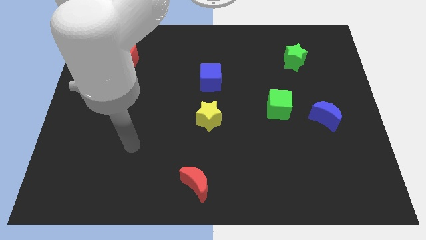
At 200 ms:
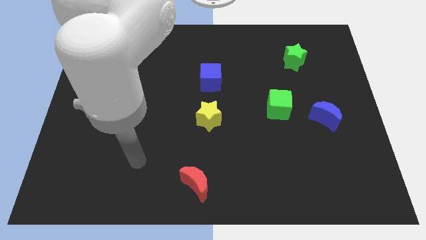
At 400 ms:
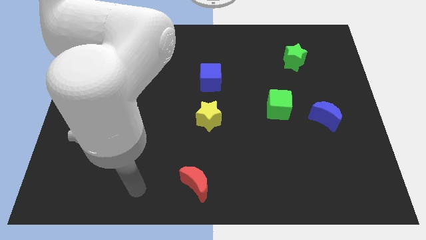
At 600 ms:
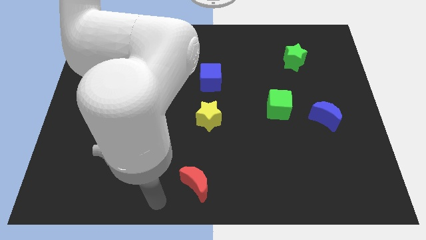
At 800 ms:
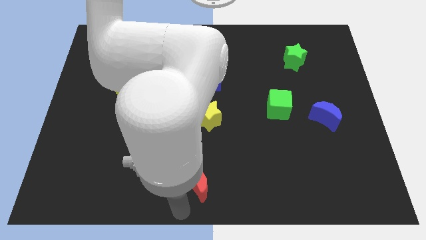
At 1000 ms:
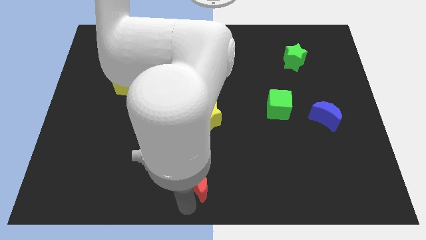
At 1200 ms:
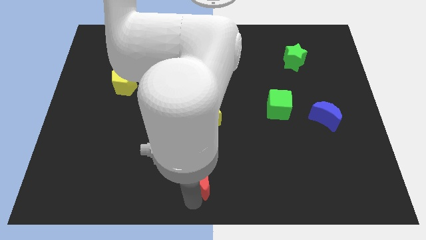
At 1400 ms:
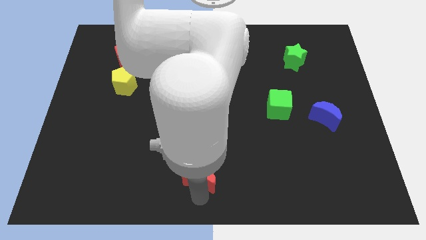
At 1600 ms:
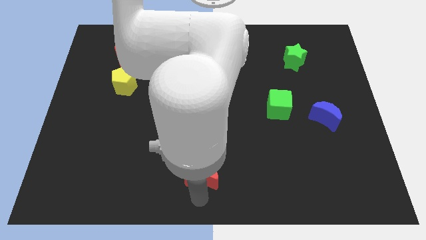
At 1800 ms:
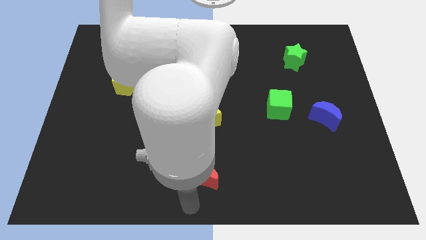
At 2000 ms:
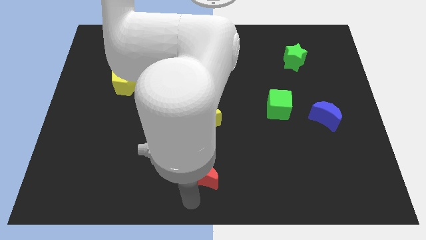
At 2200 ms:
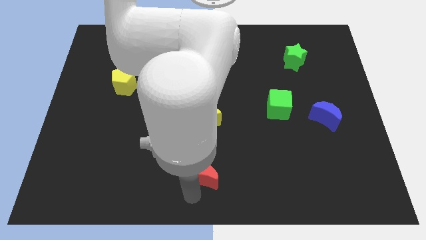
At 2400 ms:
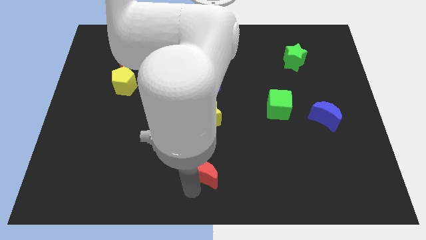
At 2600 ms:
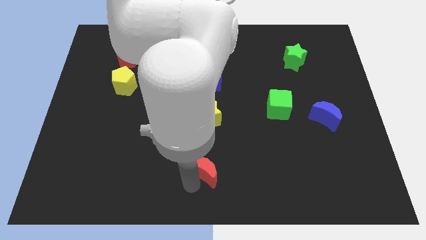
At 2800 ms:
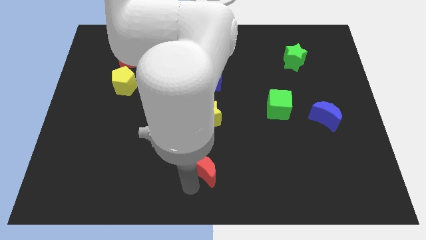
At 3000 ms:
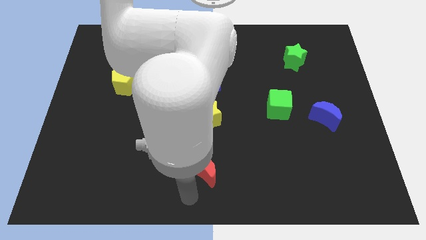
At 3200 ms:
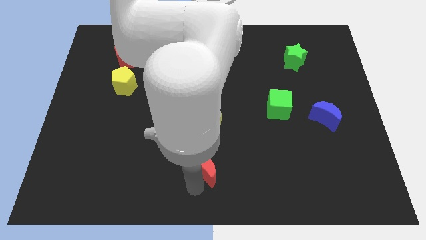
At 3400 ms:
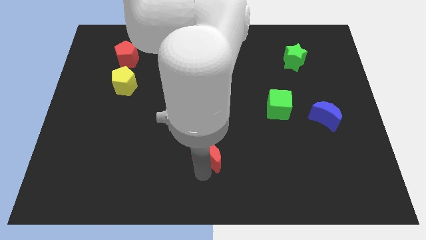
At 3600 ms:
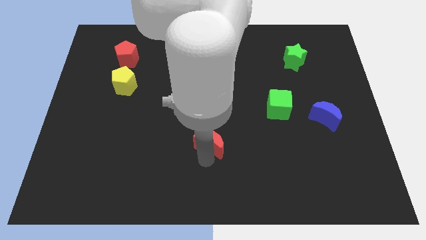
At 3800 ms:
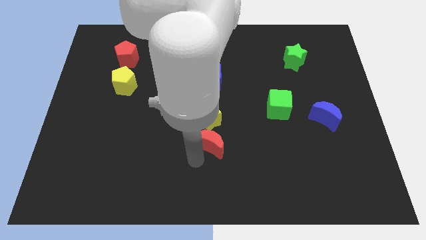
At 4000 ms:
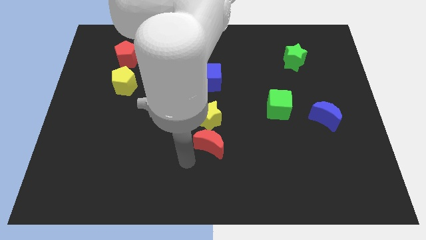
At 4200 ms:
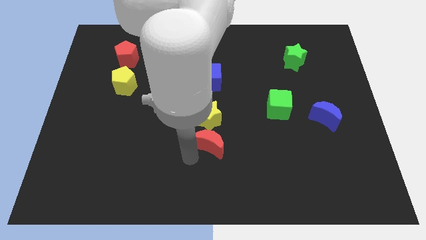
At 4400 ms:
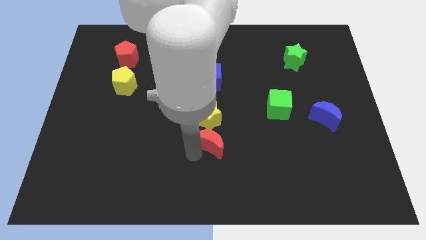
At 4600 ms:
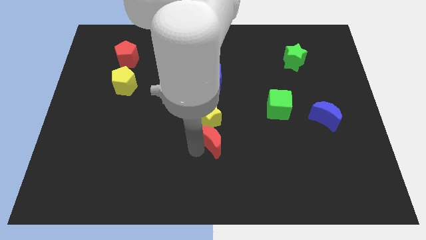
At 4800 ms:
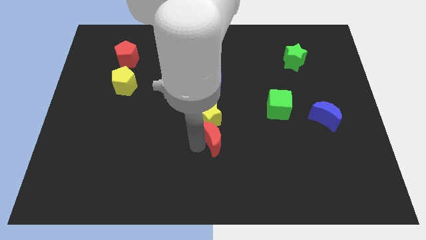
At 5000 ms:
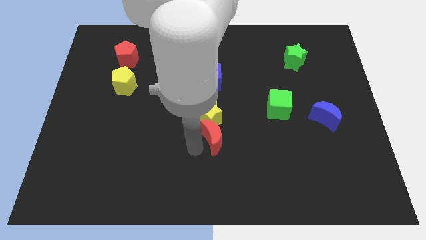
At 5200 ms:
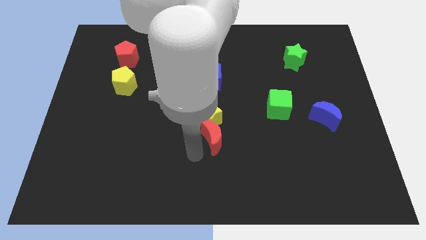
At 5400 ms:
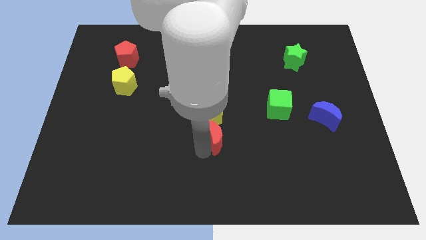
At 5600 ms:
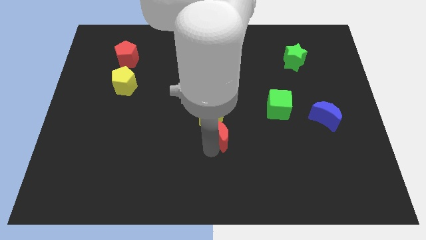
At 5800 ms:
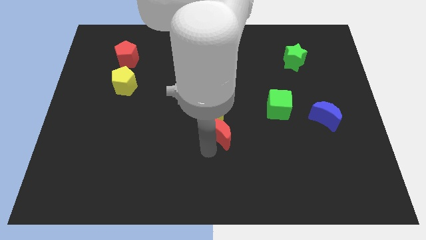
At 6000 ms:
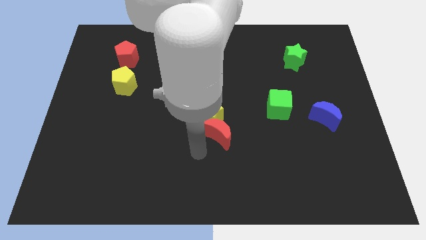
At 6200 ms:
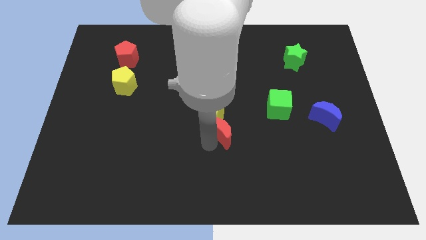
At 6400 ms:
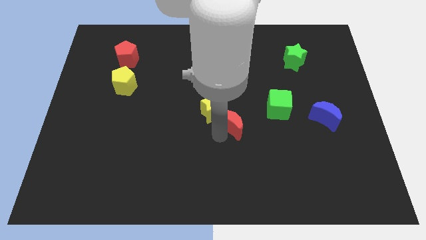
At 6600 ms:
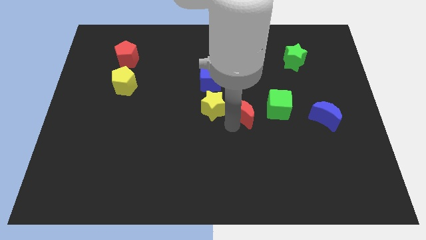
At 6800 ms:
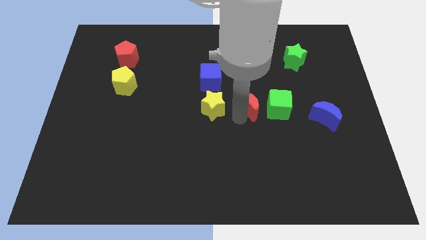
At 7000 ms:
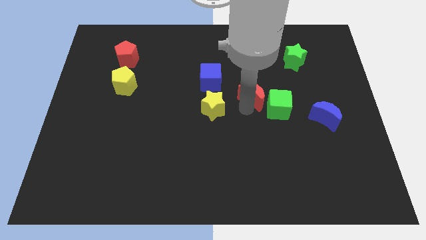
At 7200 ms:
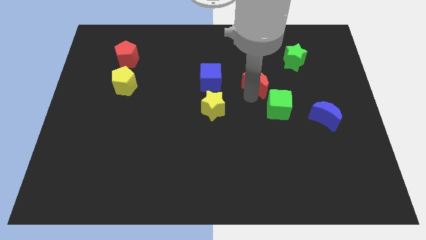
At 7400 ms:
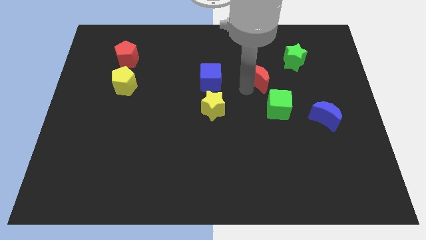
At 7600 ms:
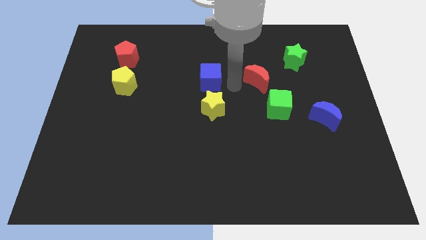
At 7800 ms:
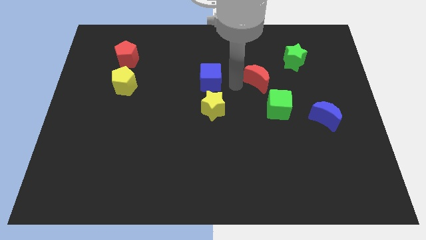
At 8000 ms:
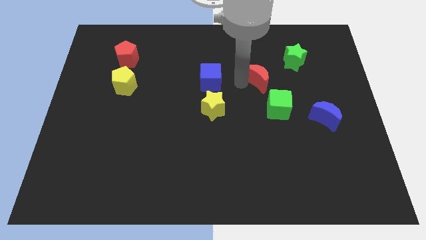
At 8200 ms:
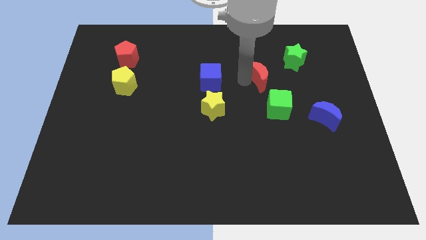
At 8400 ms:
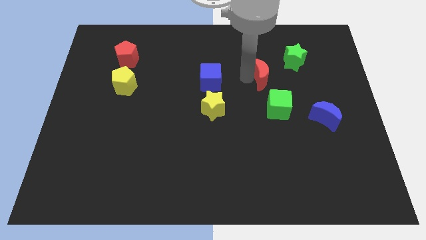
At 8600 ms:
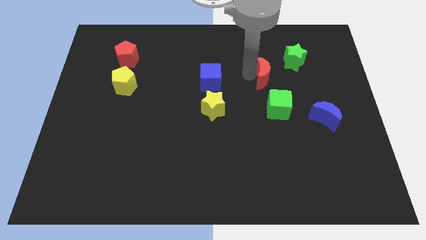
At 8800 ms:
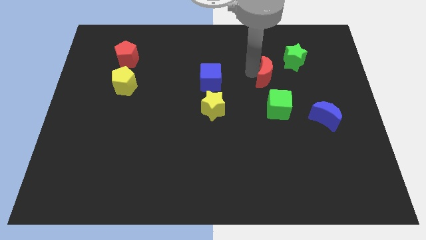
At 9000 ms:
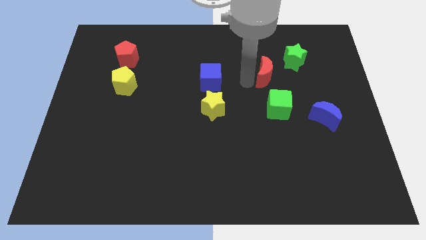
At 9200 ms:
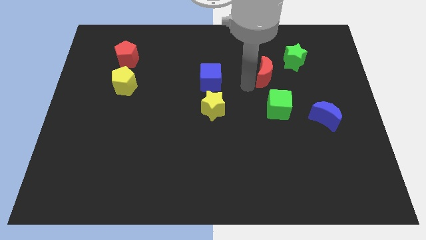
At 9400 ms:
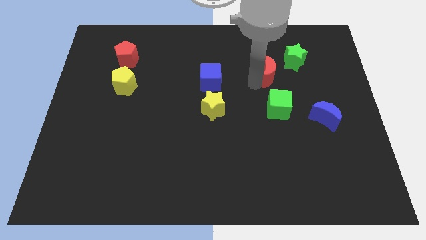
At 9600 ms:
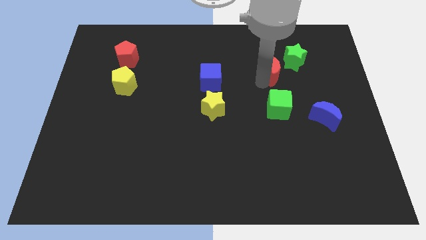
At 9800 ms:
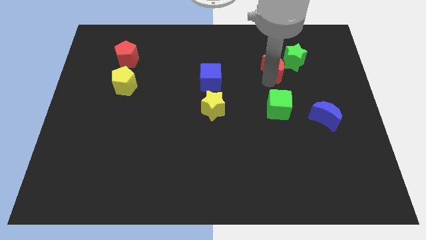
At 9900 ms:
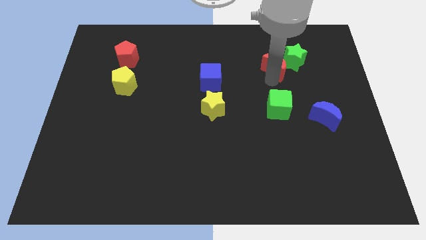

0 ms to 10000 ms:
push the red moon towards the green star

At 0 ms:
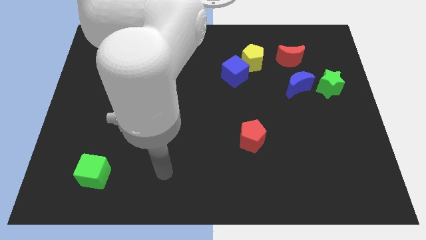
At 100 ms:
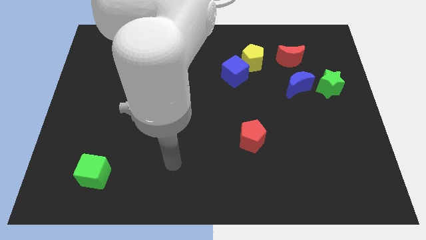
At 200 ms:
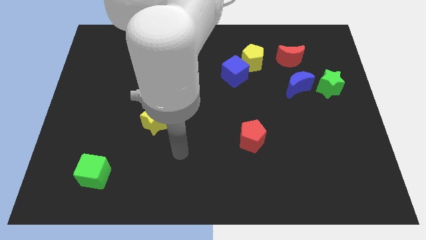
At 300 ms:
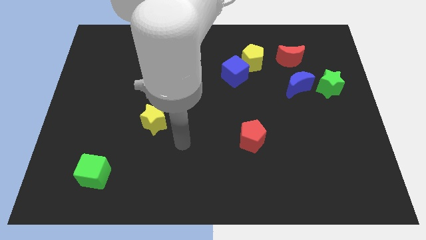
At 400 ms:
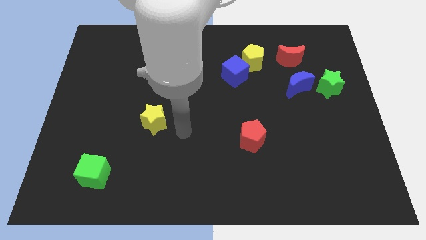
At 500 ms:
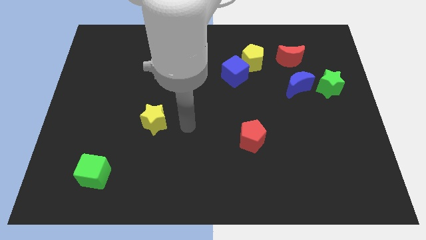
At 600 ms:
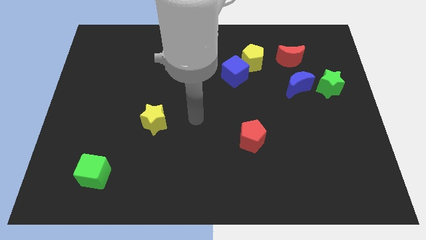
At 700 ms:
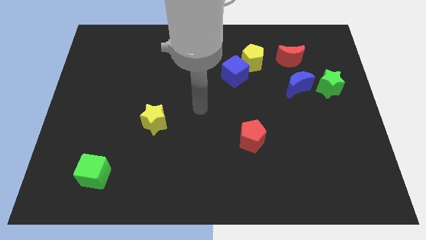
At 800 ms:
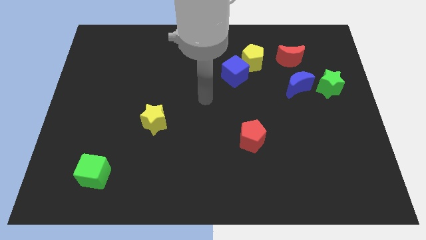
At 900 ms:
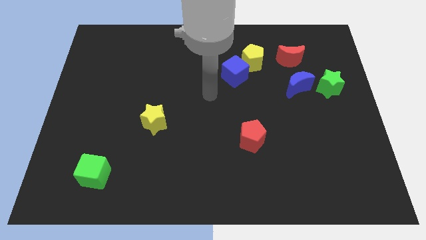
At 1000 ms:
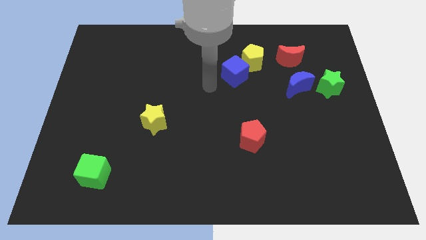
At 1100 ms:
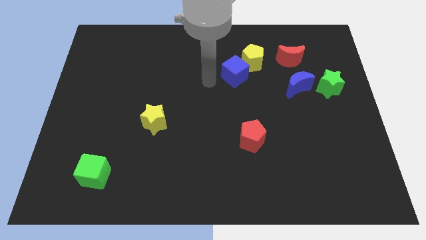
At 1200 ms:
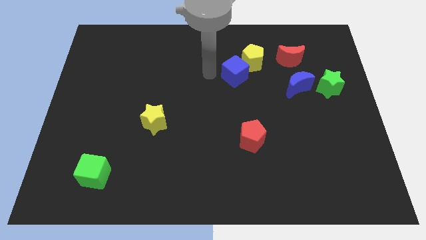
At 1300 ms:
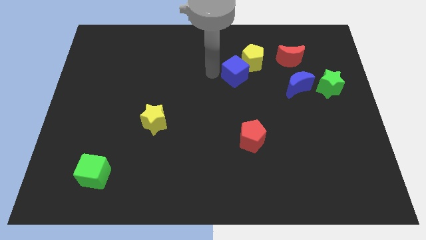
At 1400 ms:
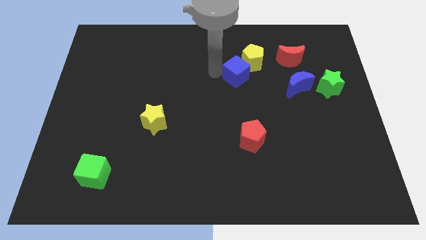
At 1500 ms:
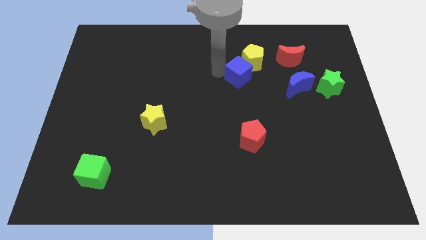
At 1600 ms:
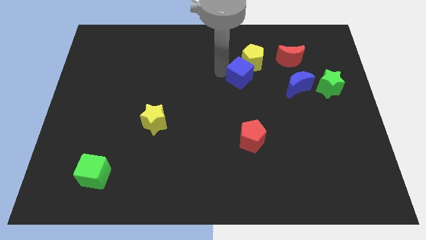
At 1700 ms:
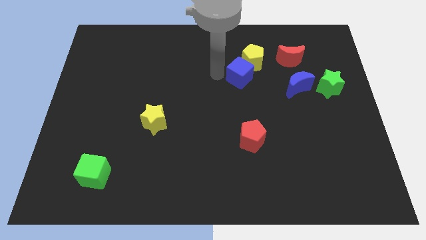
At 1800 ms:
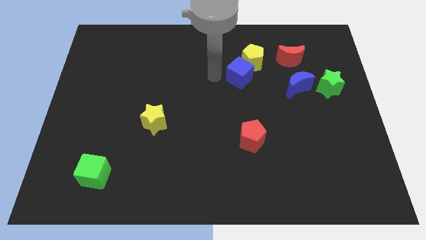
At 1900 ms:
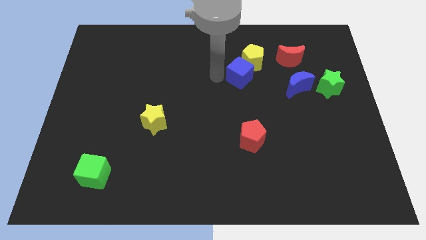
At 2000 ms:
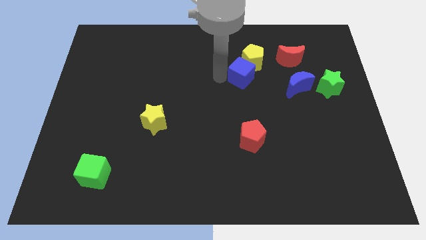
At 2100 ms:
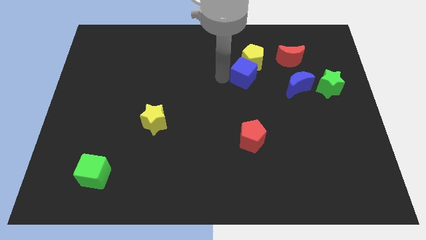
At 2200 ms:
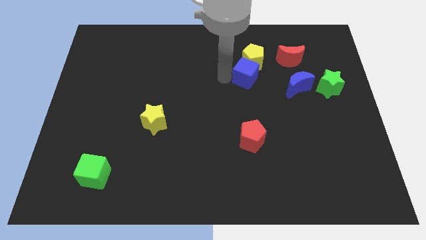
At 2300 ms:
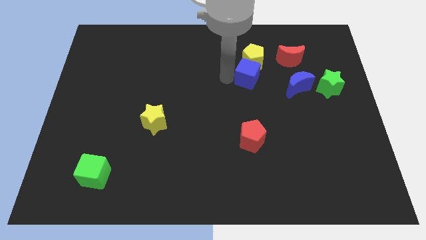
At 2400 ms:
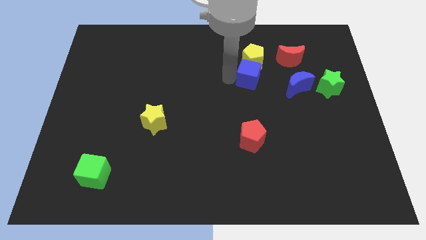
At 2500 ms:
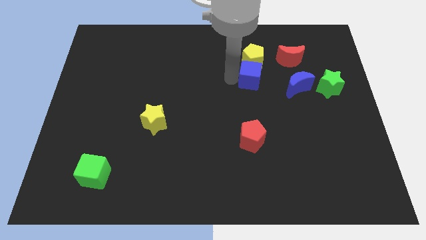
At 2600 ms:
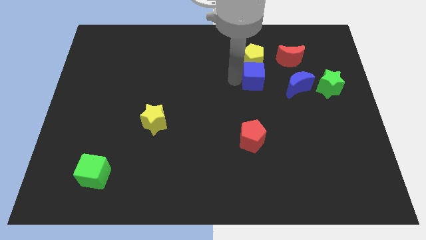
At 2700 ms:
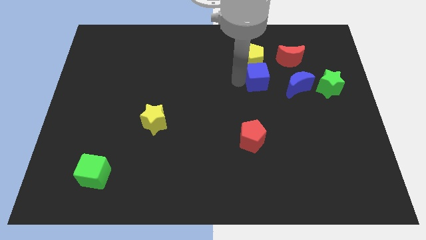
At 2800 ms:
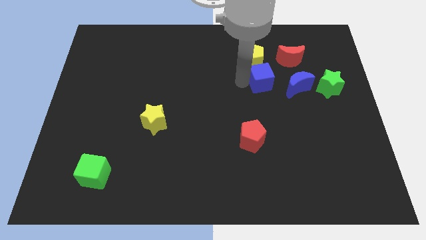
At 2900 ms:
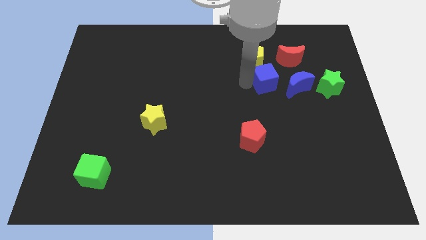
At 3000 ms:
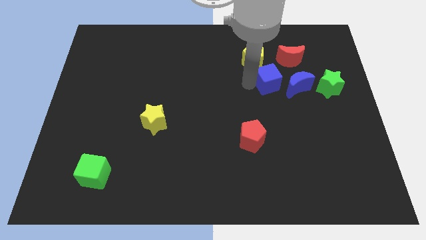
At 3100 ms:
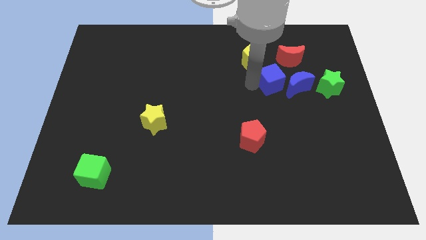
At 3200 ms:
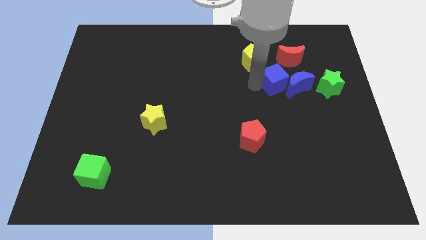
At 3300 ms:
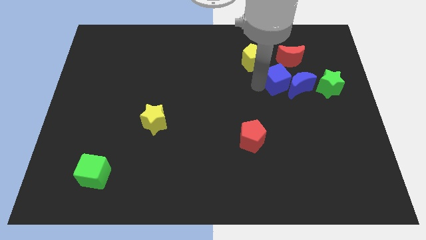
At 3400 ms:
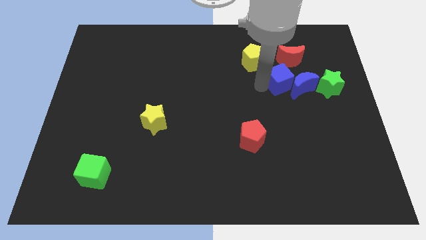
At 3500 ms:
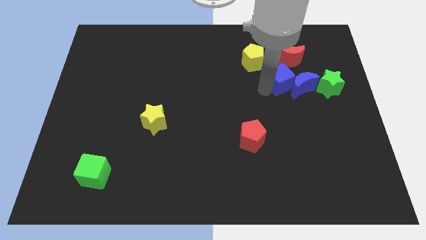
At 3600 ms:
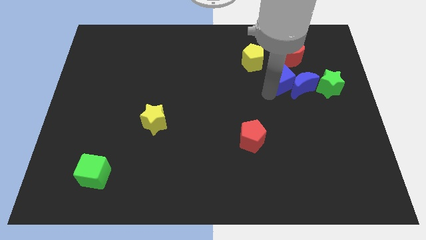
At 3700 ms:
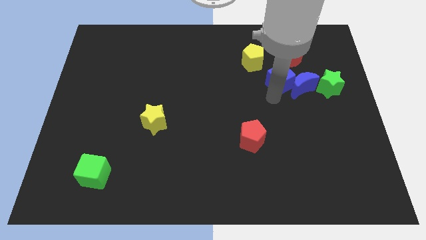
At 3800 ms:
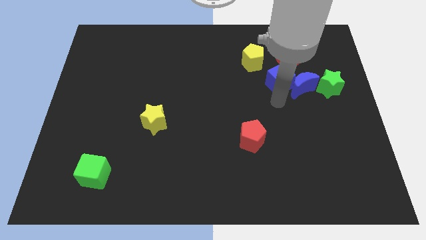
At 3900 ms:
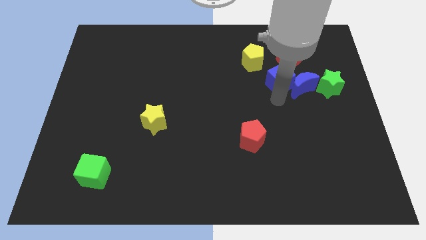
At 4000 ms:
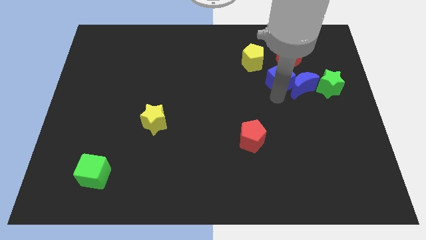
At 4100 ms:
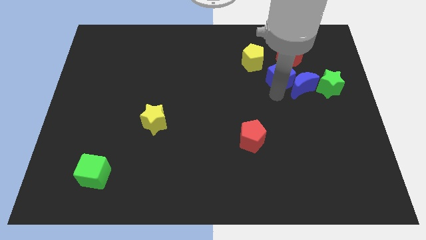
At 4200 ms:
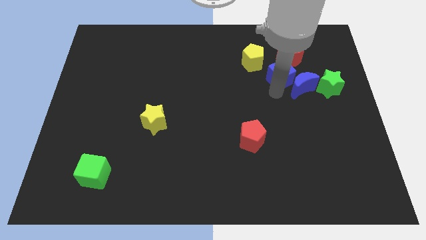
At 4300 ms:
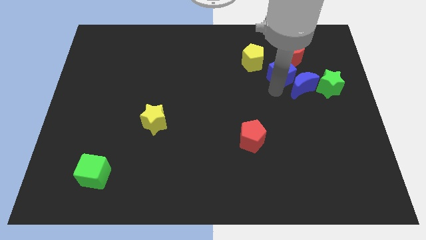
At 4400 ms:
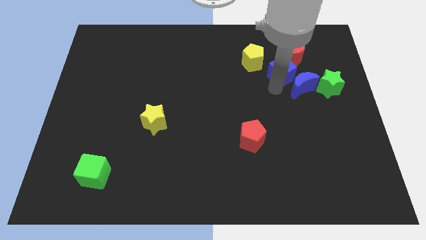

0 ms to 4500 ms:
push the blue cube close to the red moon
